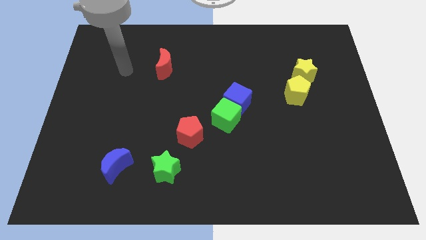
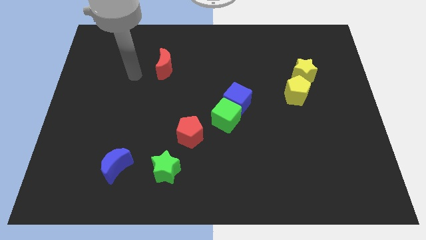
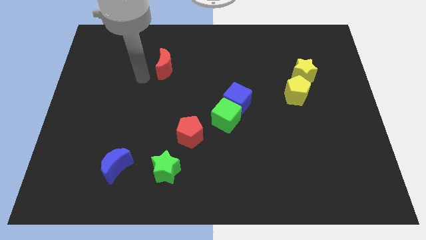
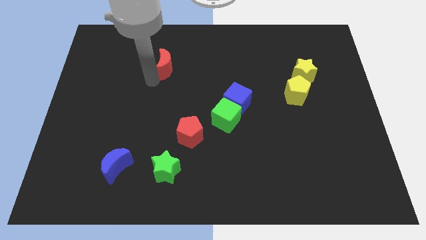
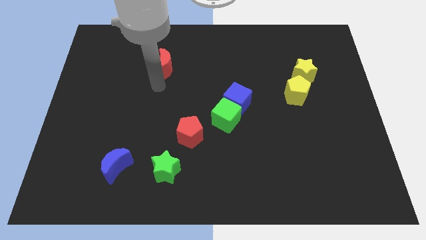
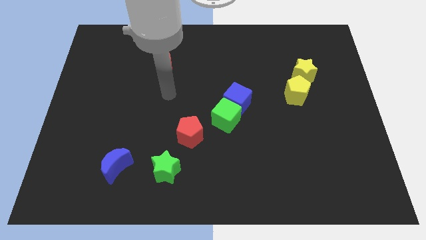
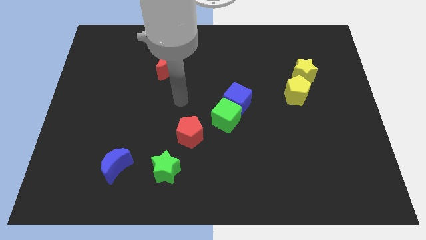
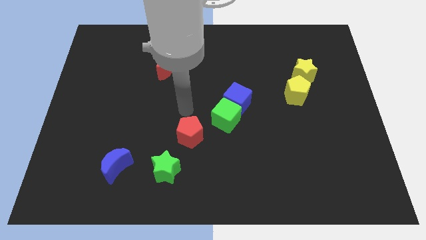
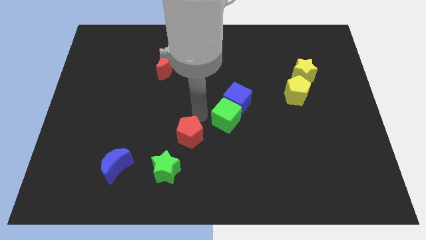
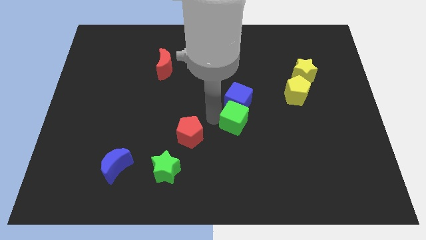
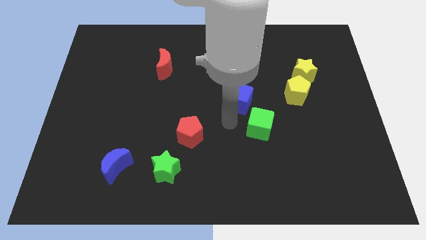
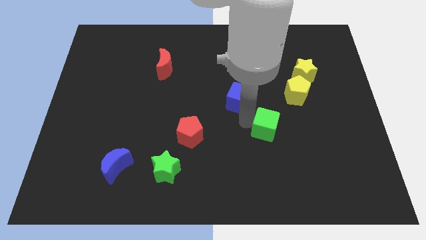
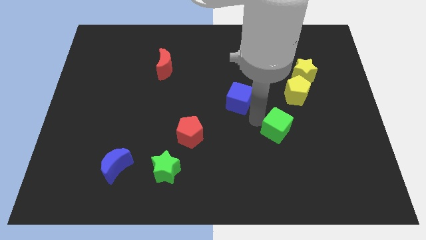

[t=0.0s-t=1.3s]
pull the blue cube apart from the green cube

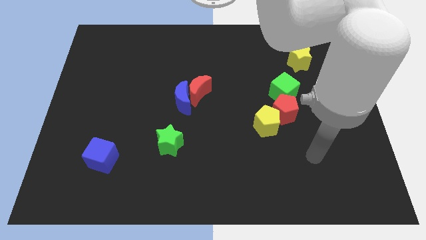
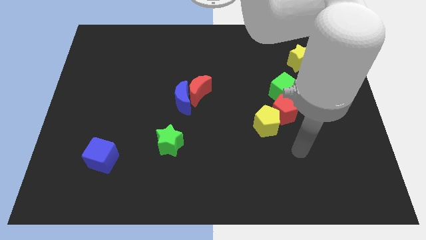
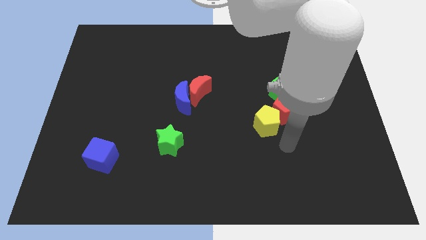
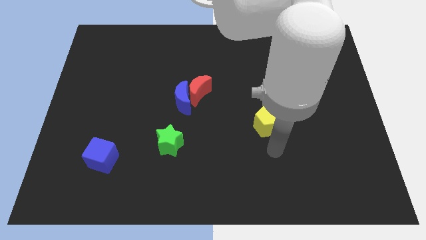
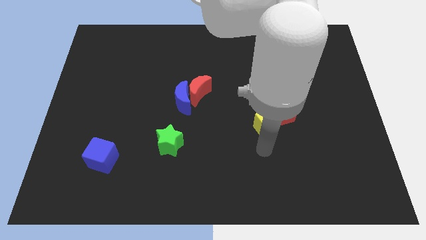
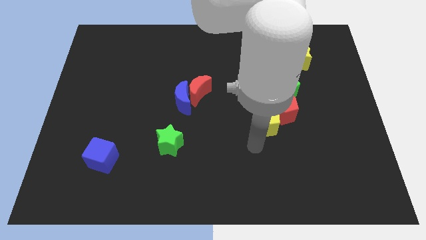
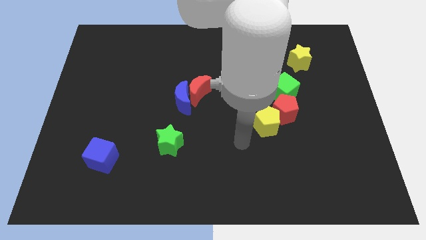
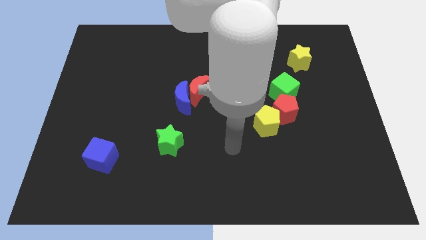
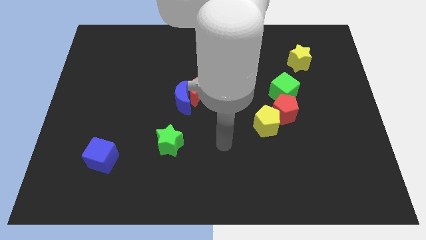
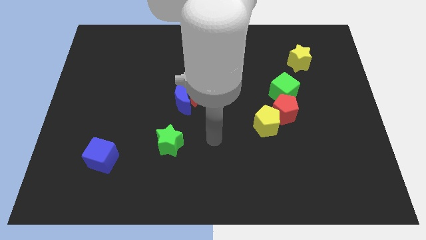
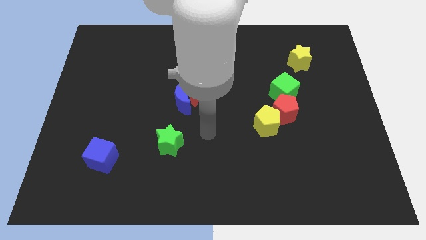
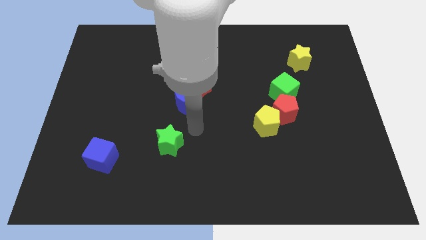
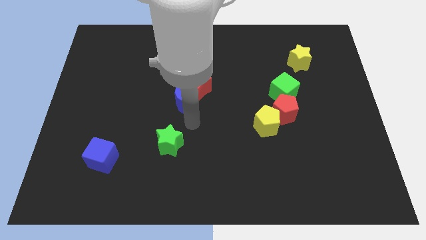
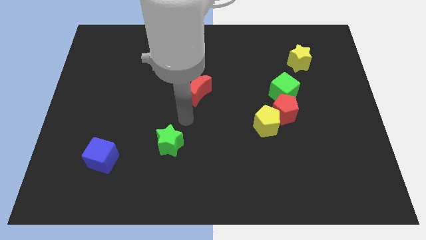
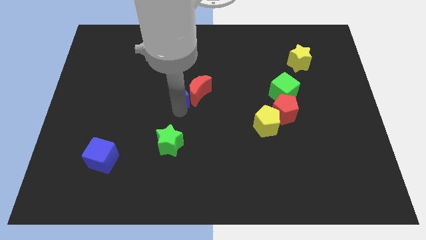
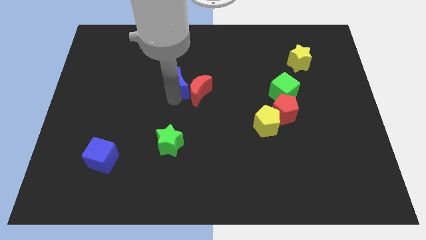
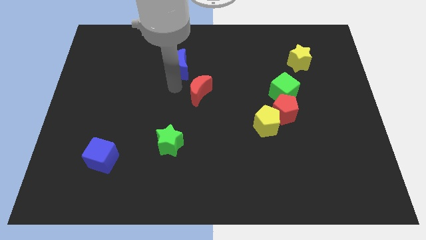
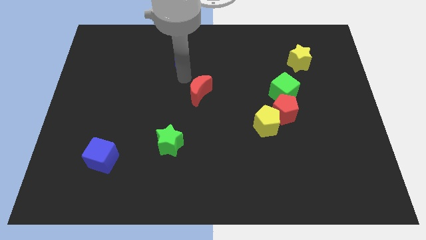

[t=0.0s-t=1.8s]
move the red moon away from the blue moon

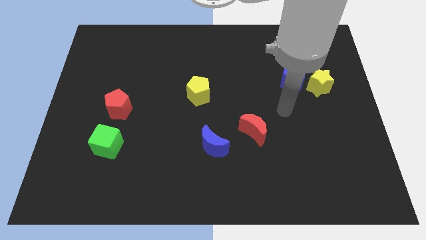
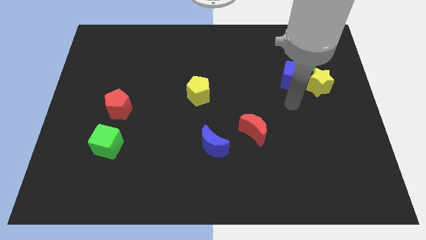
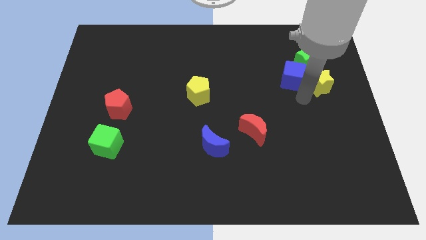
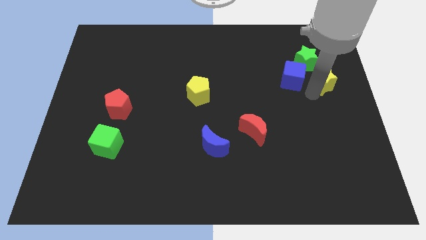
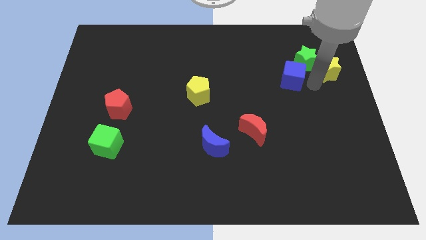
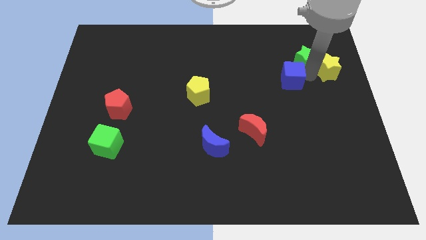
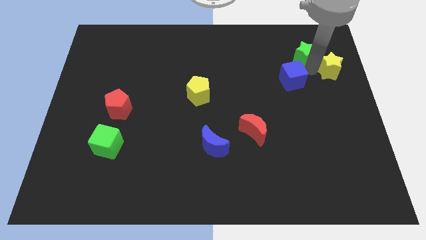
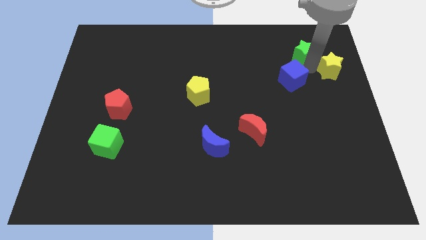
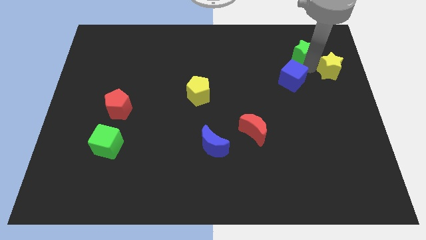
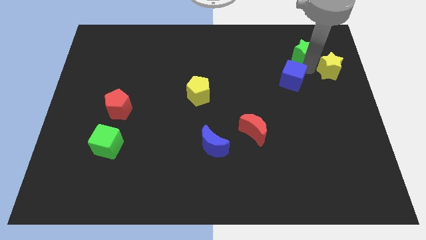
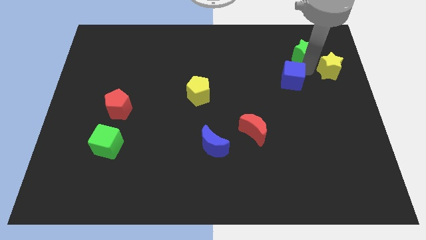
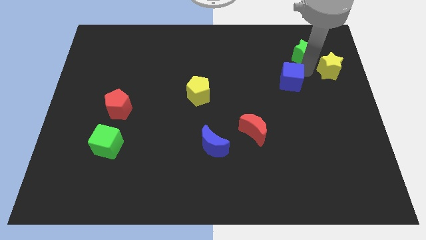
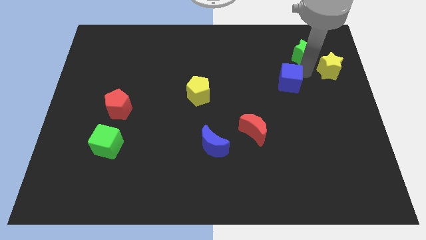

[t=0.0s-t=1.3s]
pull the blue cube apart from the yellow star and green star

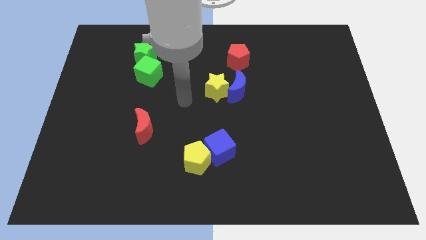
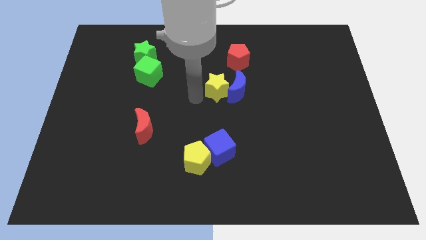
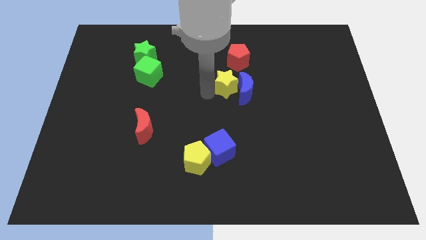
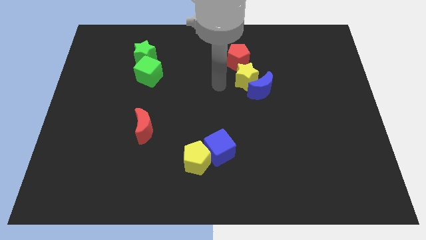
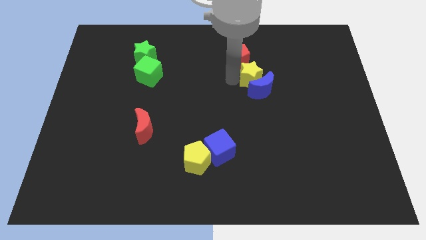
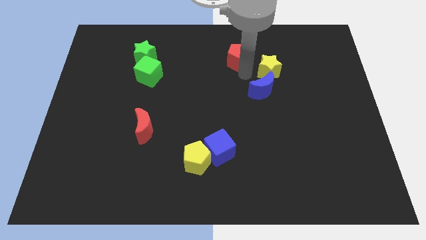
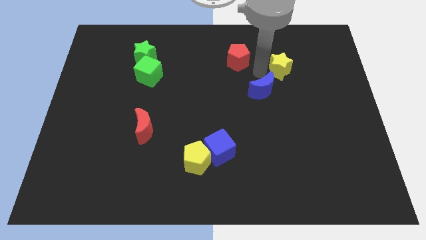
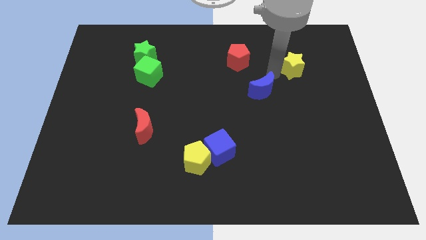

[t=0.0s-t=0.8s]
separate the blue moon from the yellow star

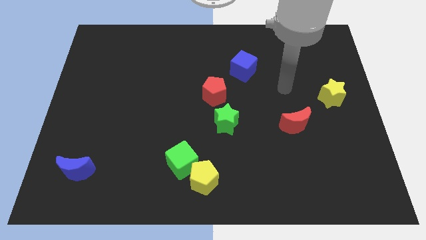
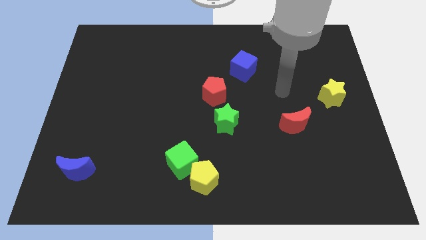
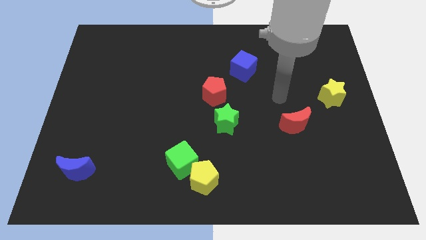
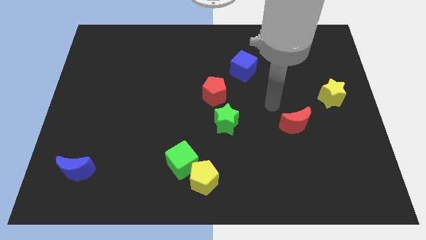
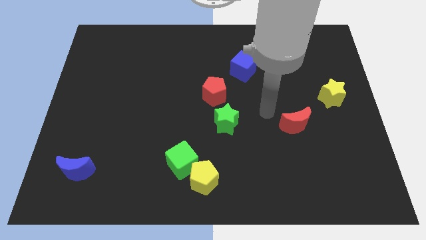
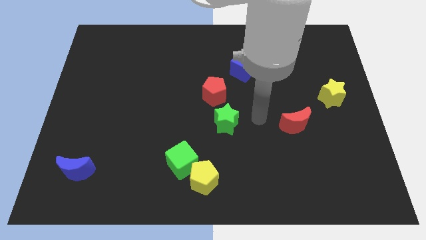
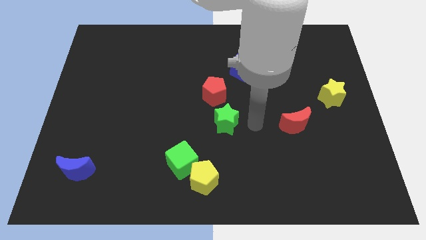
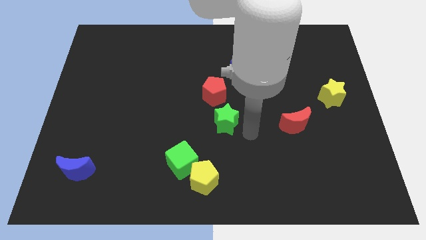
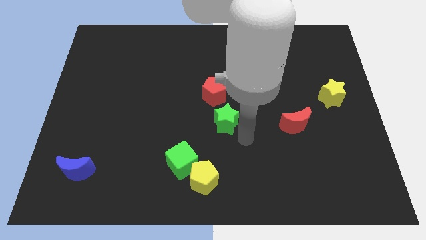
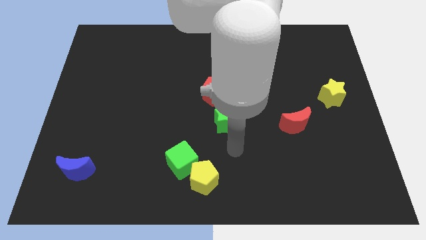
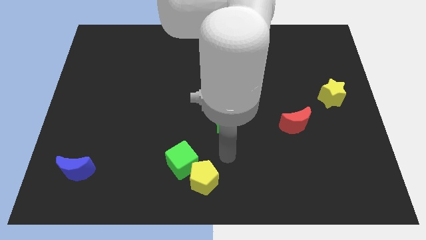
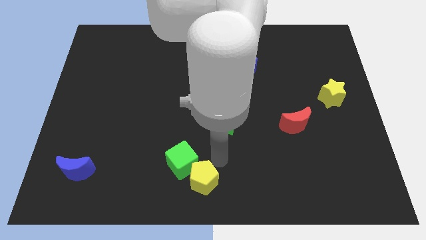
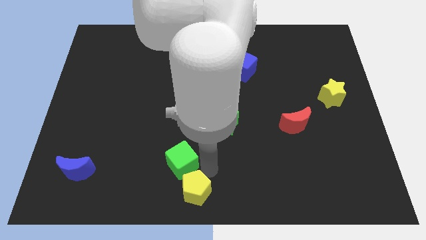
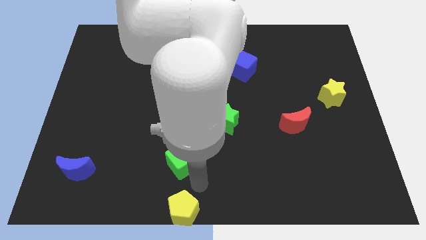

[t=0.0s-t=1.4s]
pull the green cube apart from the yellow pentagon

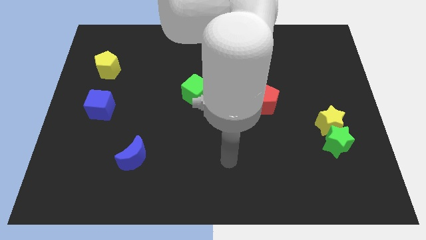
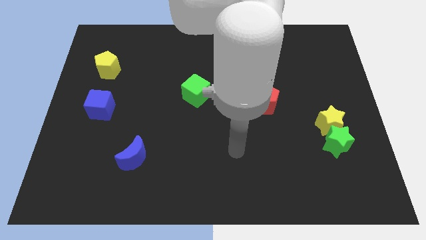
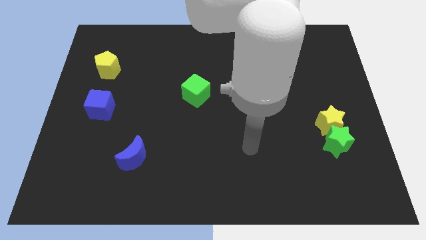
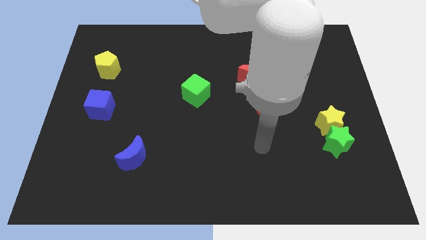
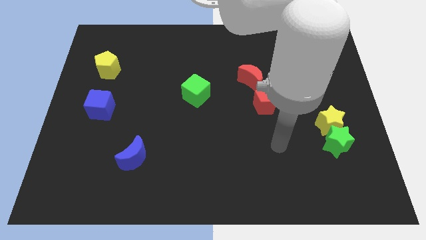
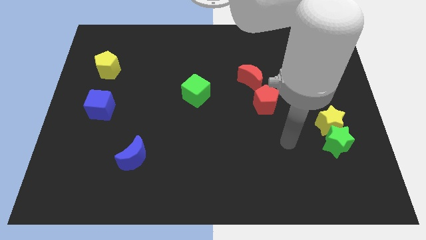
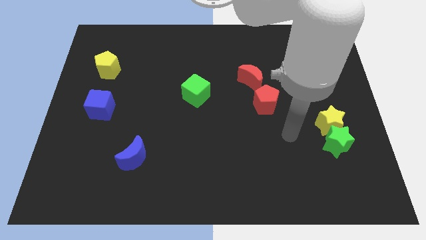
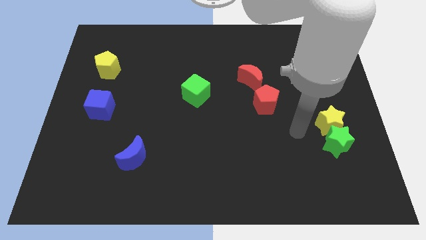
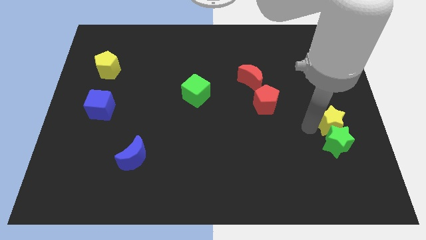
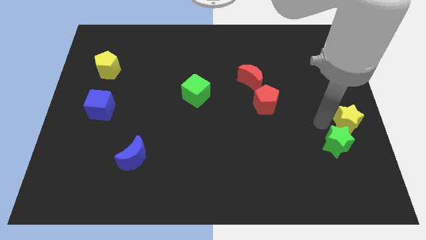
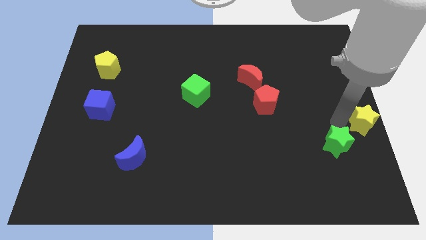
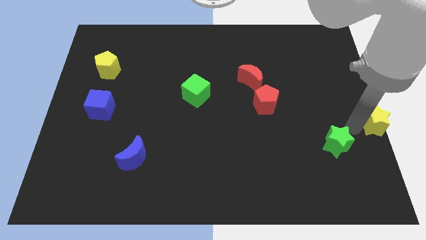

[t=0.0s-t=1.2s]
move the green star away from the yellow star

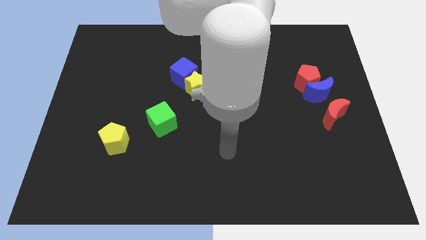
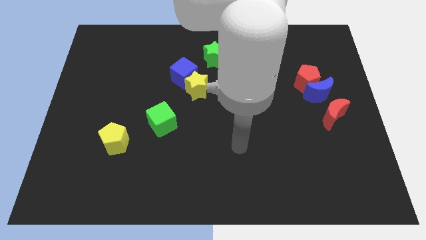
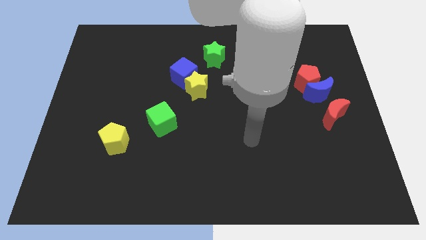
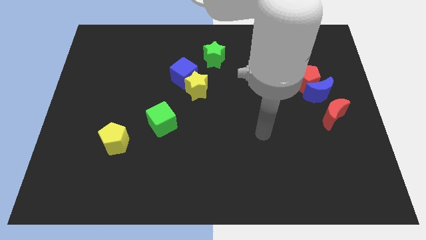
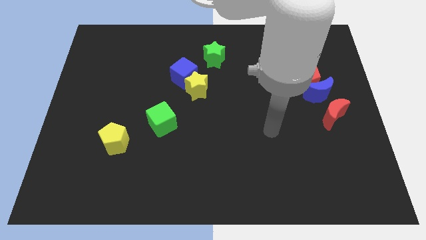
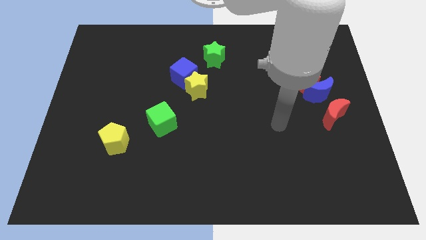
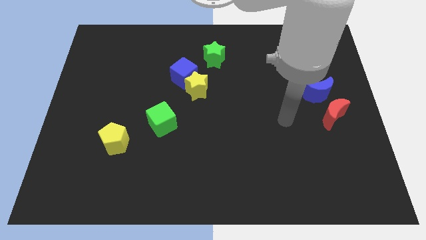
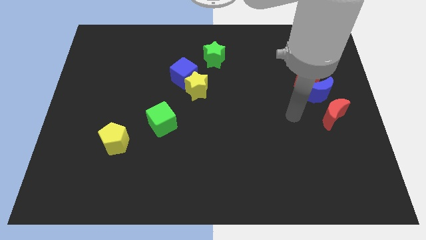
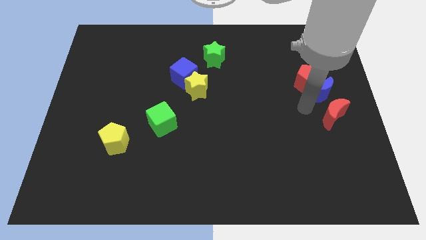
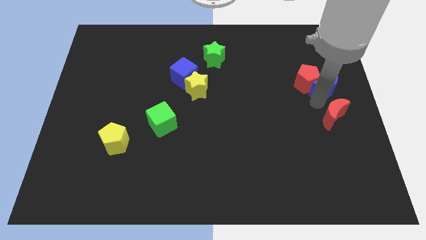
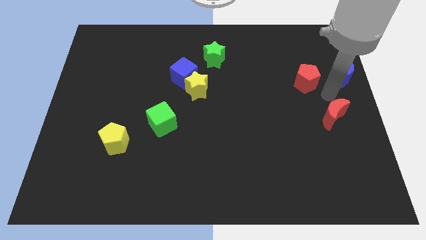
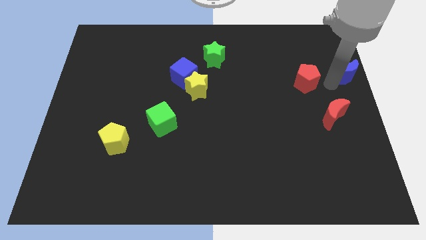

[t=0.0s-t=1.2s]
move the red pentagon away from the blue moon

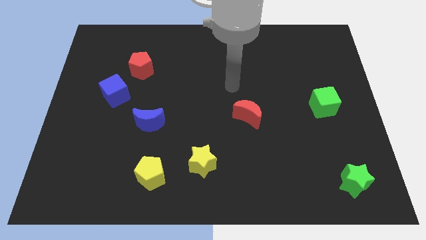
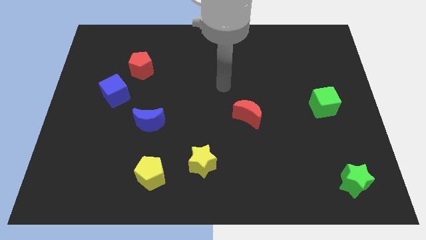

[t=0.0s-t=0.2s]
pull the red pentagon apart from the blue cube

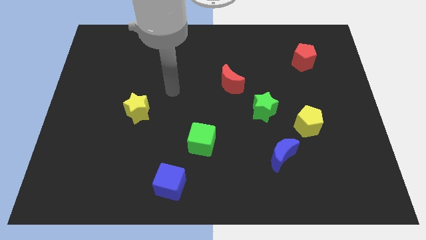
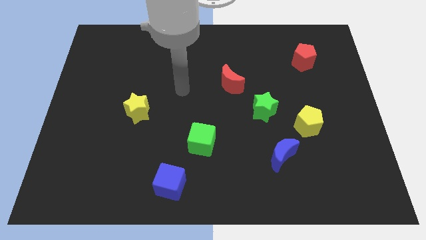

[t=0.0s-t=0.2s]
move the green star away from the yellow pentagon
